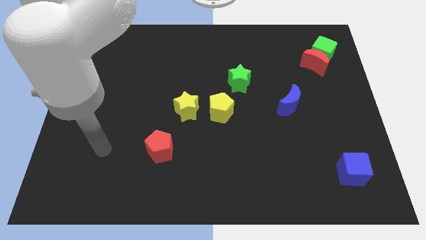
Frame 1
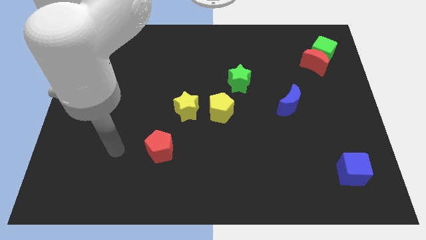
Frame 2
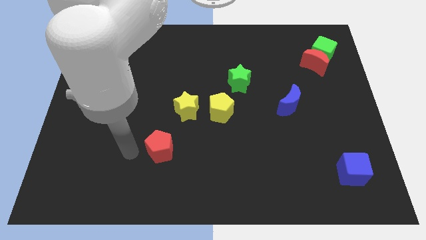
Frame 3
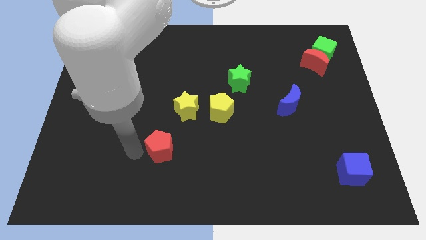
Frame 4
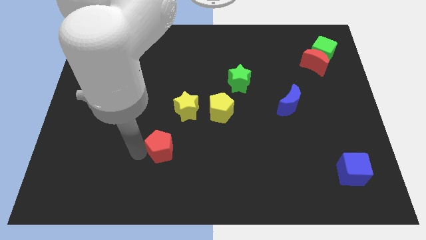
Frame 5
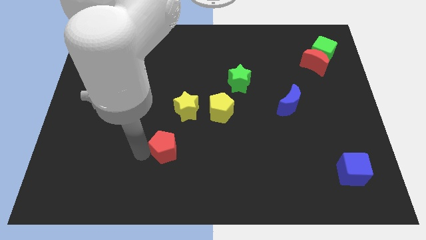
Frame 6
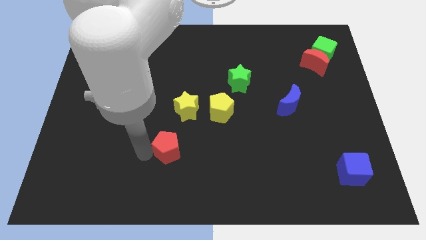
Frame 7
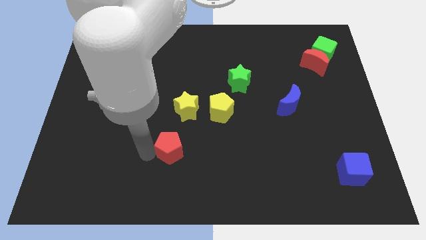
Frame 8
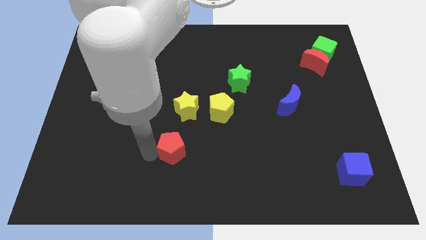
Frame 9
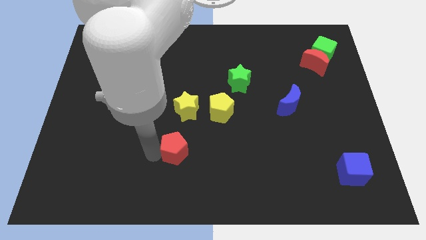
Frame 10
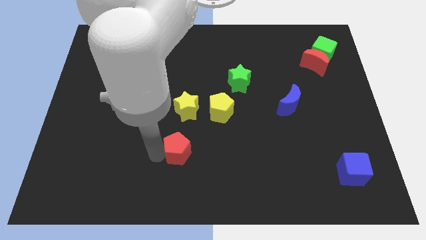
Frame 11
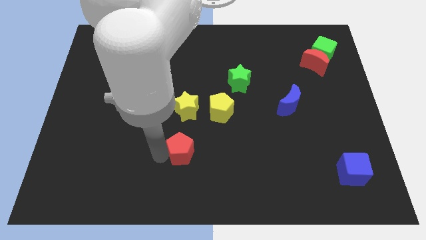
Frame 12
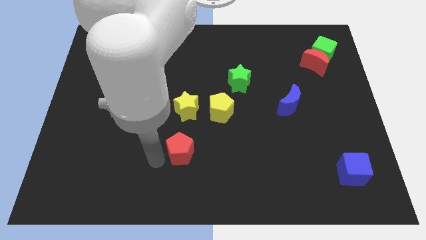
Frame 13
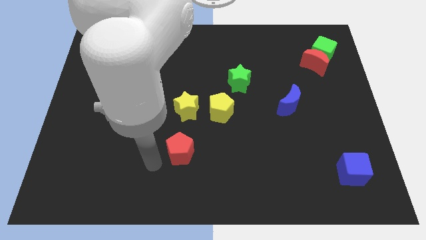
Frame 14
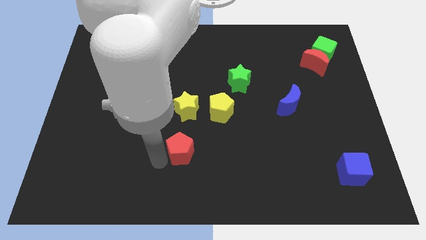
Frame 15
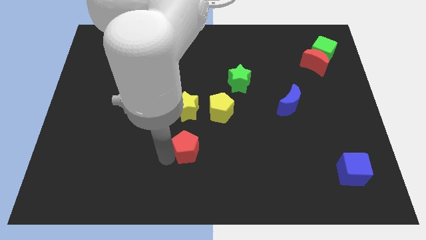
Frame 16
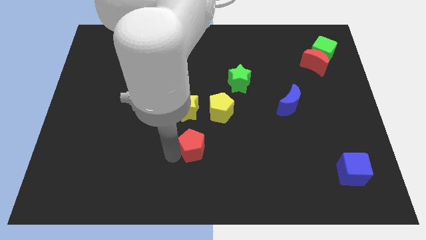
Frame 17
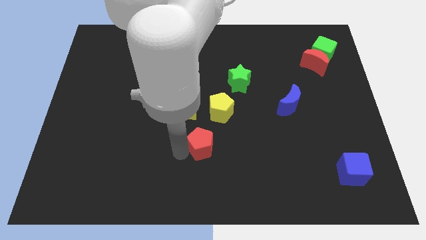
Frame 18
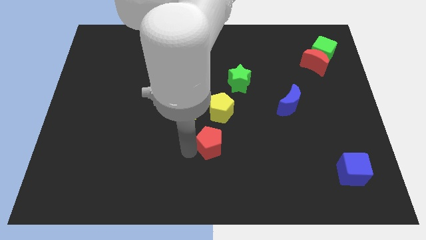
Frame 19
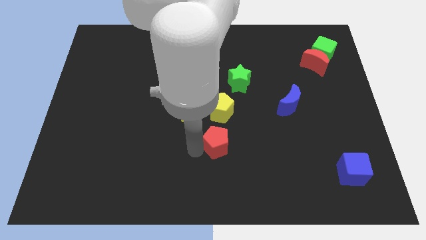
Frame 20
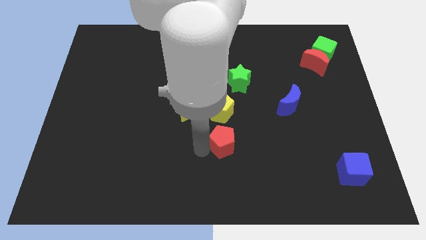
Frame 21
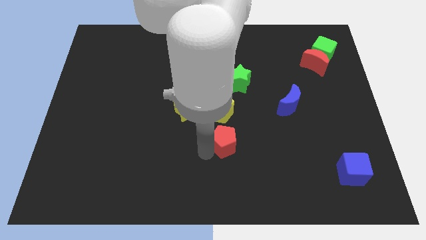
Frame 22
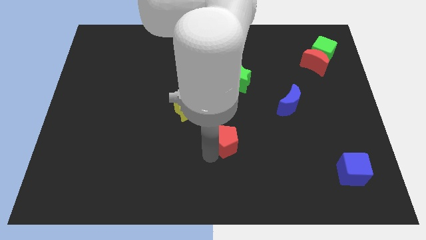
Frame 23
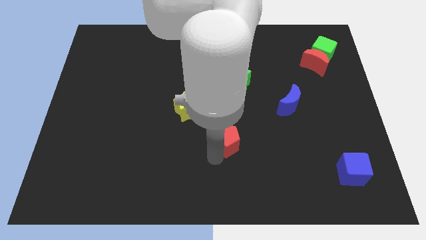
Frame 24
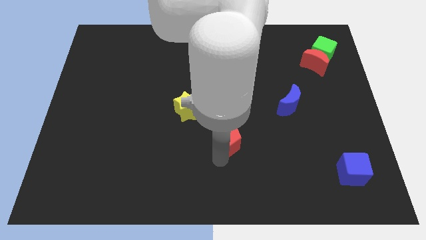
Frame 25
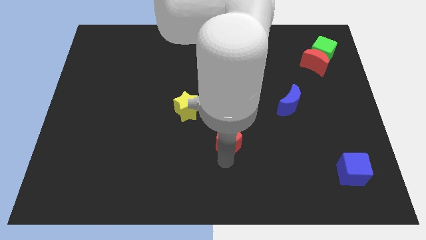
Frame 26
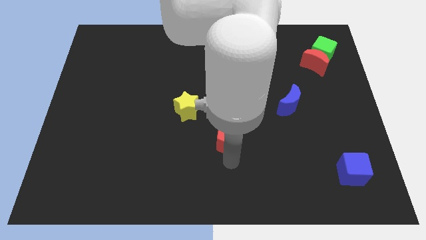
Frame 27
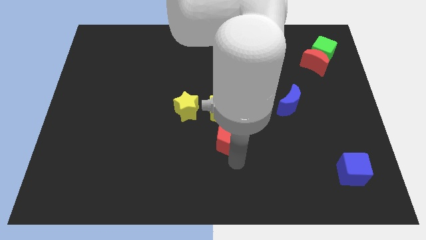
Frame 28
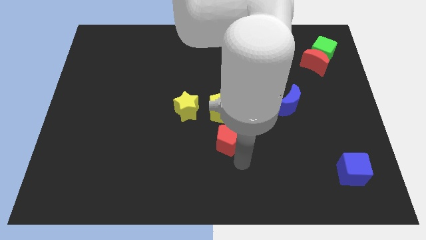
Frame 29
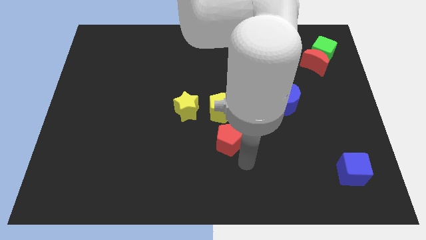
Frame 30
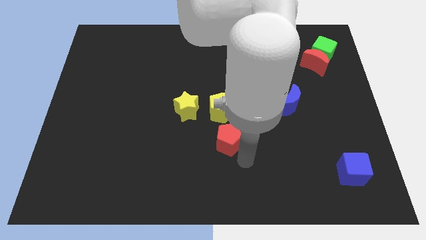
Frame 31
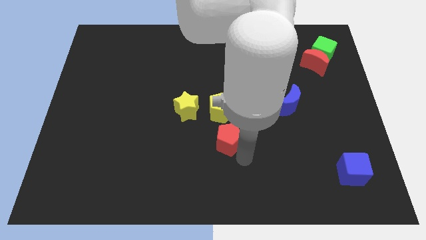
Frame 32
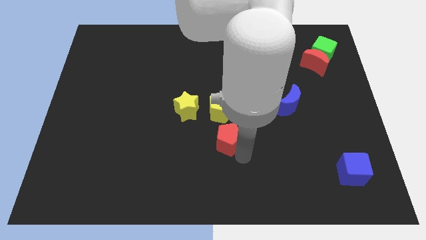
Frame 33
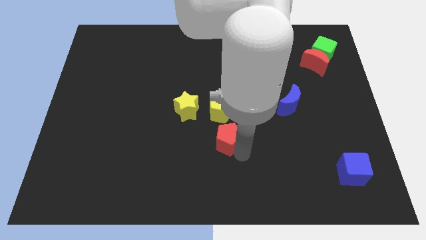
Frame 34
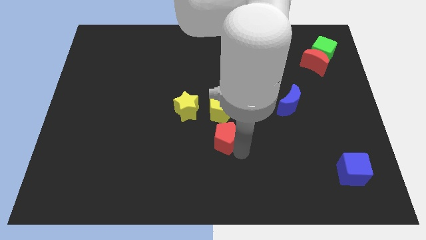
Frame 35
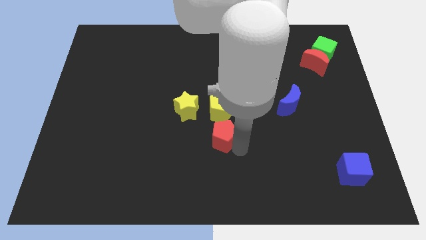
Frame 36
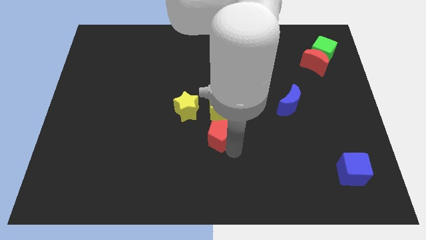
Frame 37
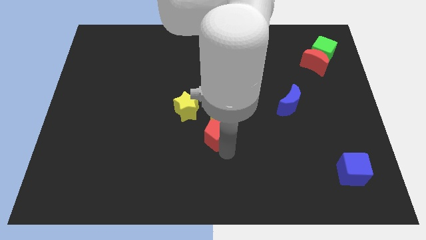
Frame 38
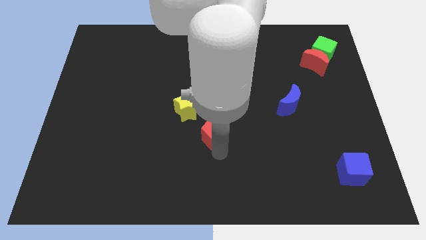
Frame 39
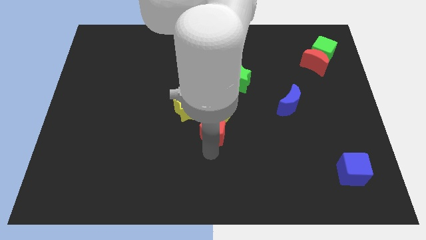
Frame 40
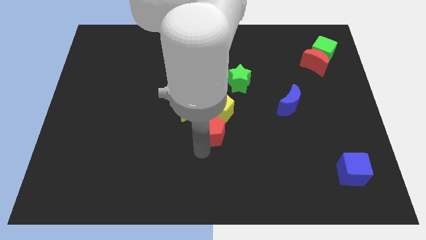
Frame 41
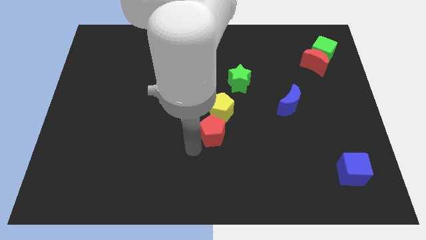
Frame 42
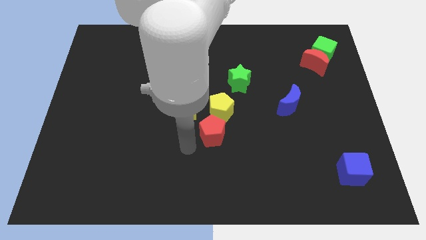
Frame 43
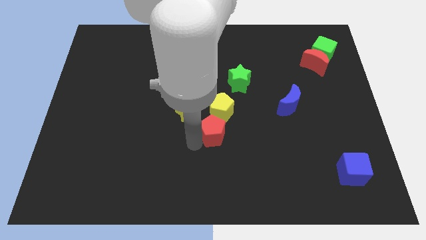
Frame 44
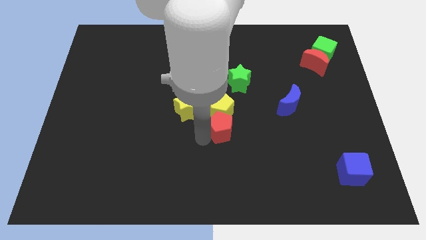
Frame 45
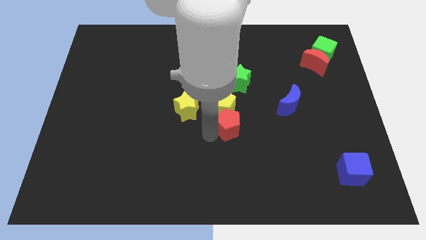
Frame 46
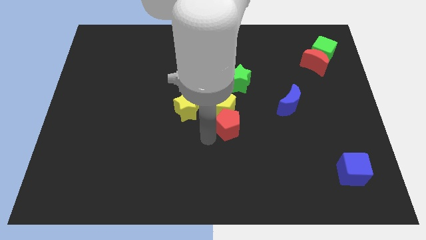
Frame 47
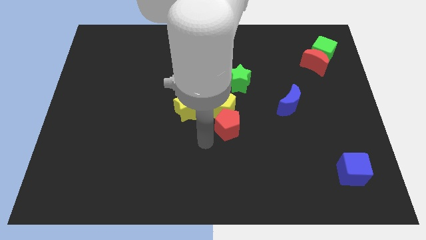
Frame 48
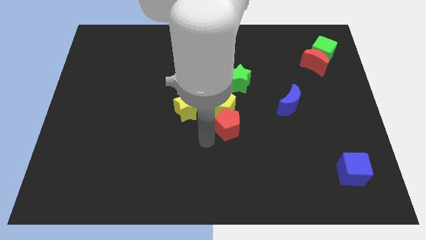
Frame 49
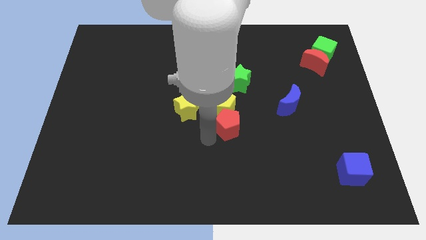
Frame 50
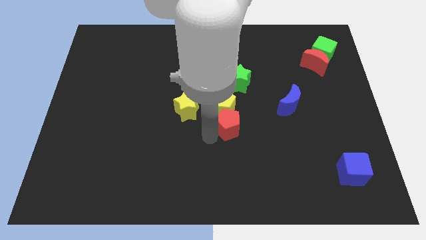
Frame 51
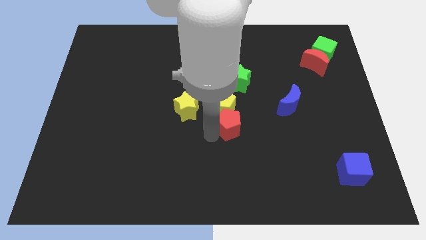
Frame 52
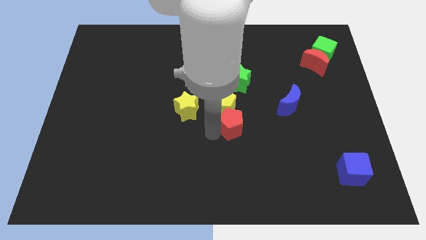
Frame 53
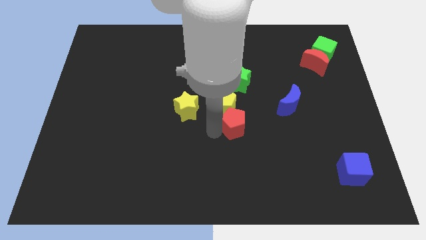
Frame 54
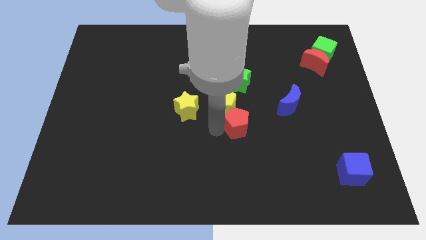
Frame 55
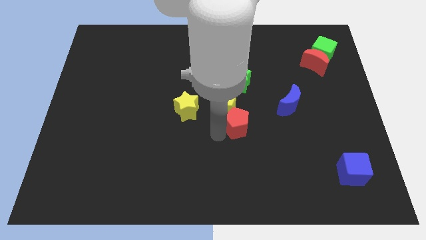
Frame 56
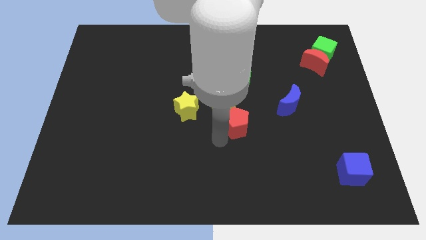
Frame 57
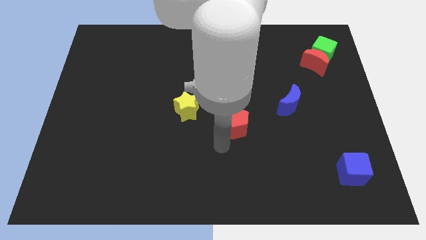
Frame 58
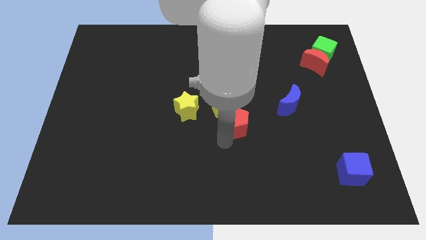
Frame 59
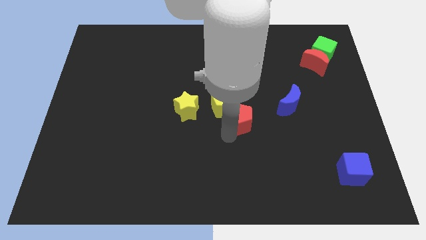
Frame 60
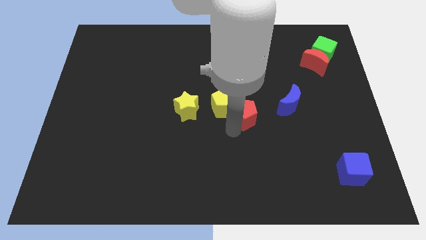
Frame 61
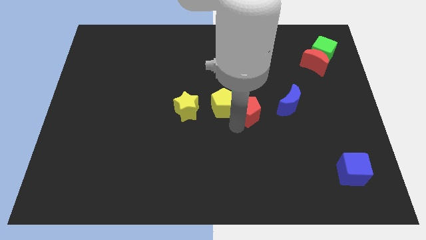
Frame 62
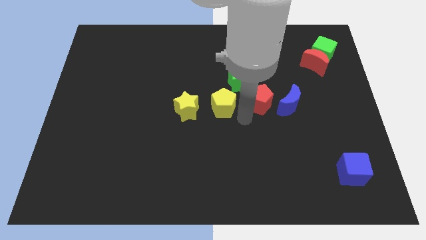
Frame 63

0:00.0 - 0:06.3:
push the red pentagon upwards and then right

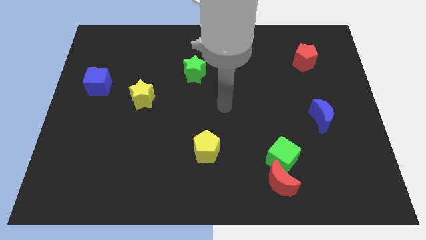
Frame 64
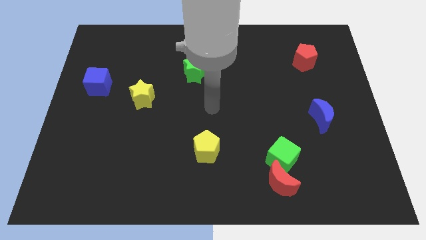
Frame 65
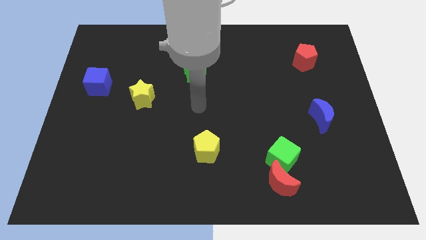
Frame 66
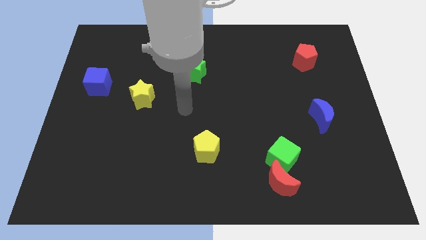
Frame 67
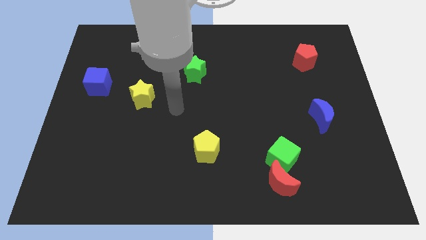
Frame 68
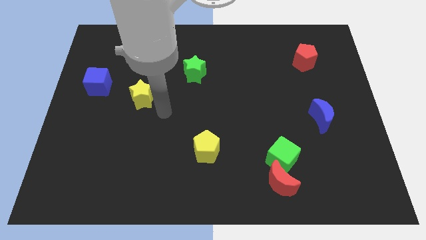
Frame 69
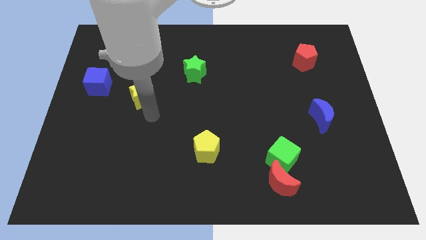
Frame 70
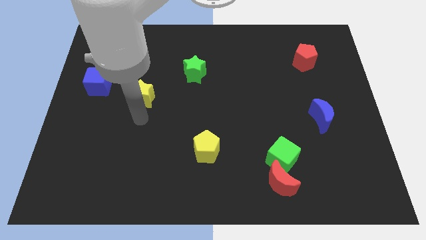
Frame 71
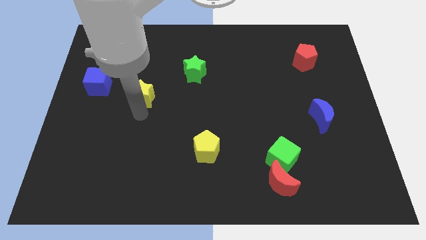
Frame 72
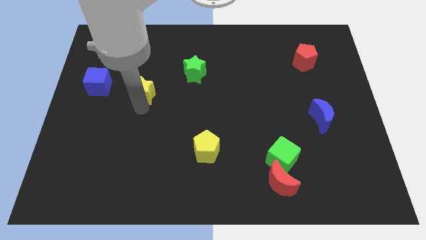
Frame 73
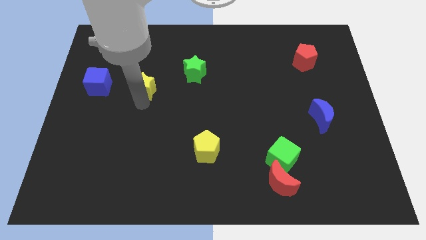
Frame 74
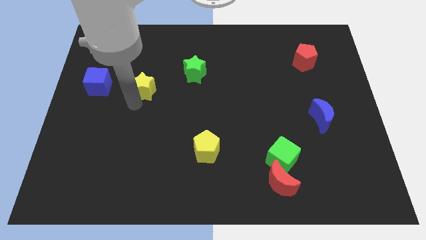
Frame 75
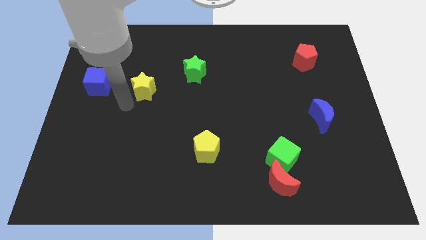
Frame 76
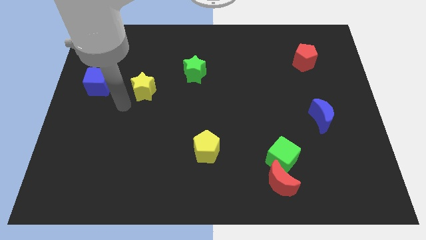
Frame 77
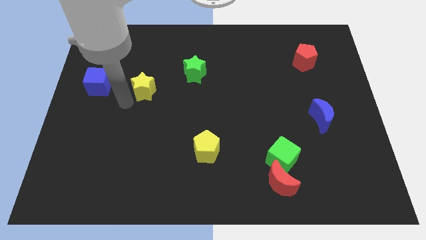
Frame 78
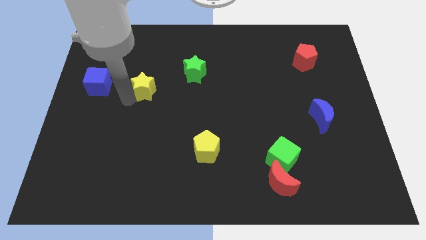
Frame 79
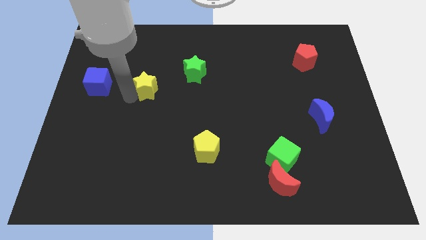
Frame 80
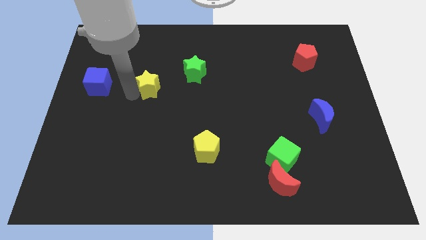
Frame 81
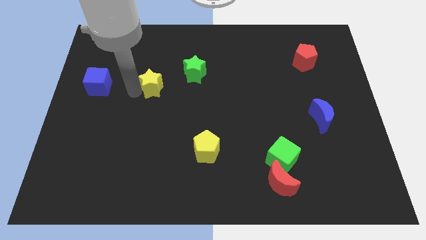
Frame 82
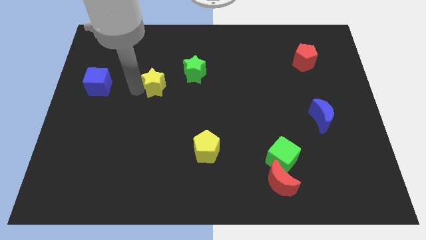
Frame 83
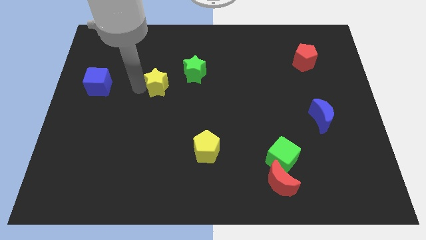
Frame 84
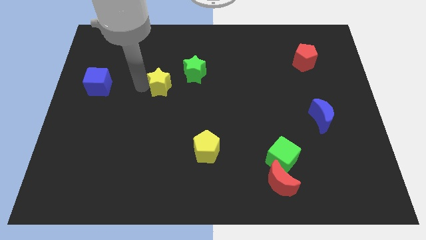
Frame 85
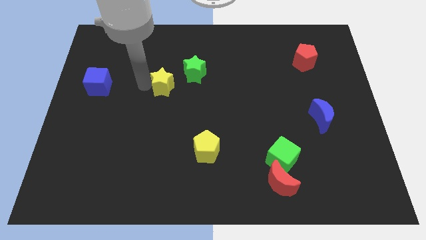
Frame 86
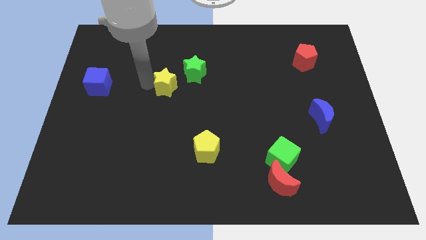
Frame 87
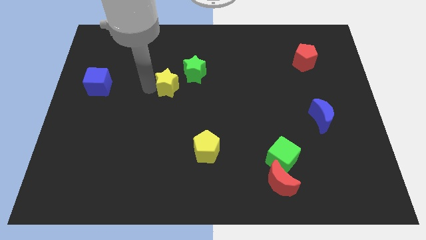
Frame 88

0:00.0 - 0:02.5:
push the yellow star diagonally upwards and right somewhat
